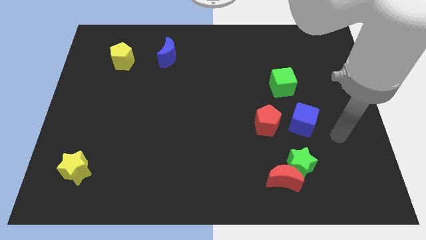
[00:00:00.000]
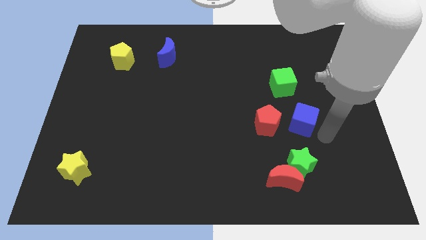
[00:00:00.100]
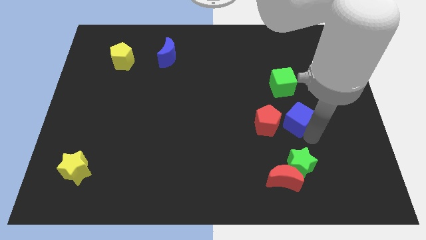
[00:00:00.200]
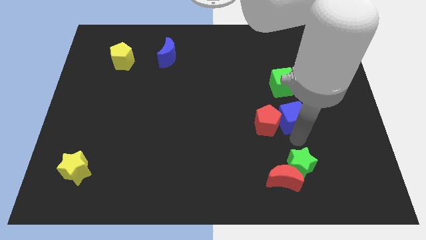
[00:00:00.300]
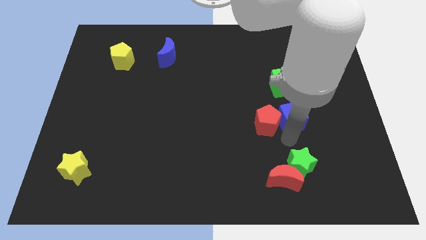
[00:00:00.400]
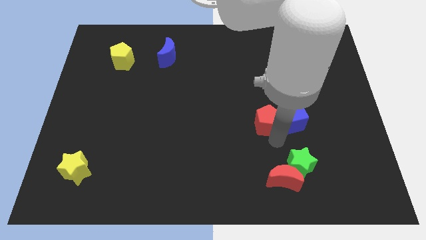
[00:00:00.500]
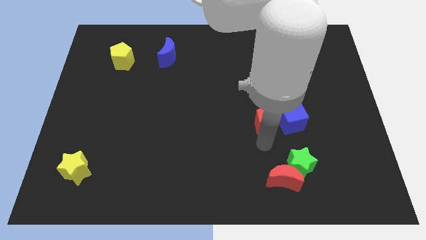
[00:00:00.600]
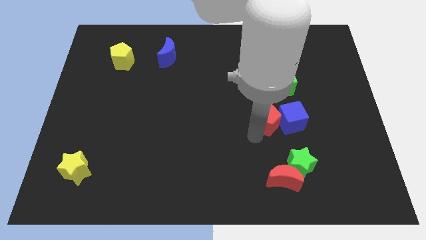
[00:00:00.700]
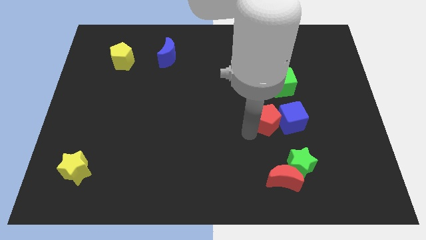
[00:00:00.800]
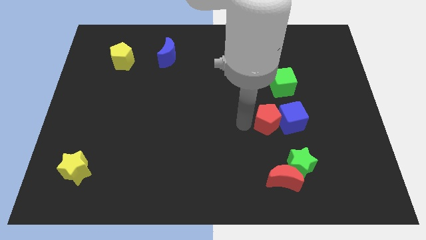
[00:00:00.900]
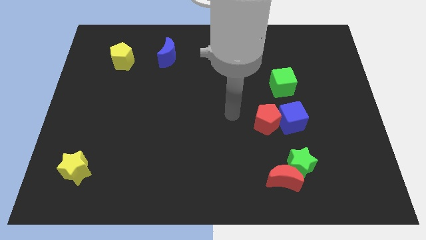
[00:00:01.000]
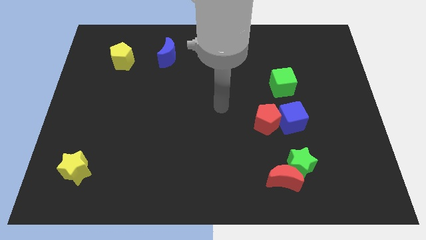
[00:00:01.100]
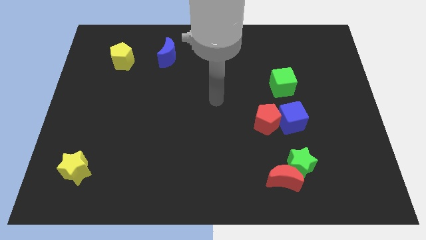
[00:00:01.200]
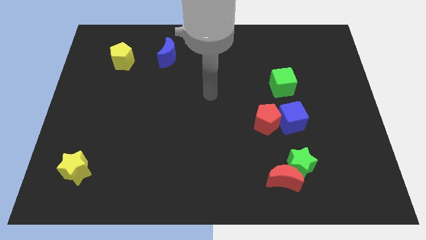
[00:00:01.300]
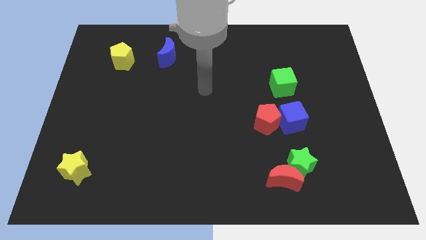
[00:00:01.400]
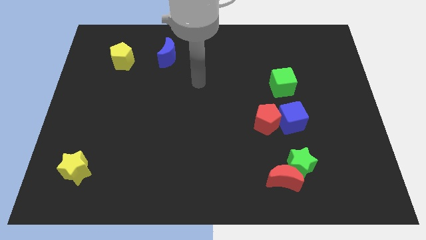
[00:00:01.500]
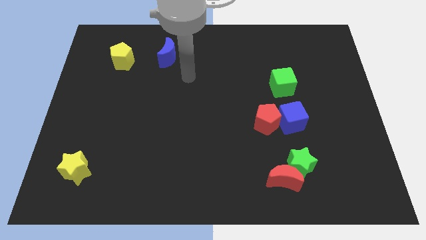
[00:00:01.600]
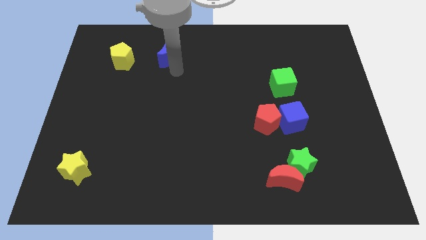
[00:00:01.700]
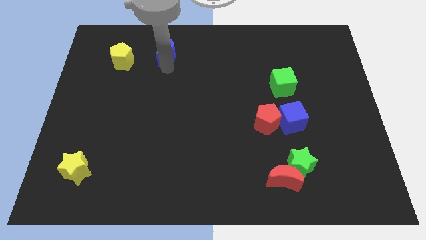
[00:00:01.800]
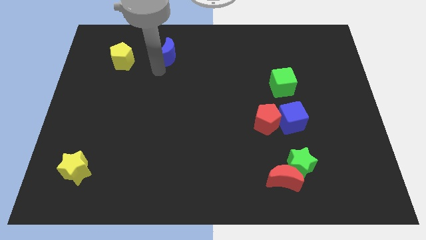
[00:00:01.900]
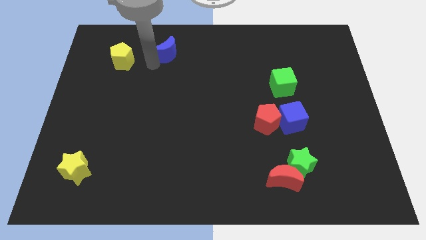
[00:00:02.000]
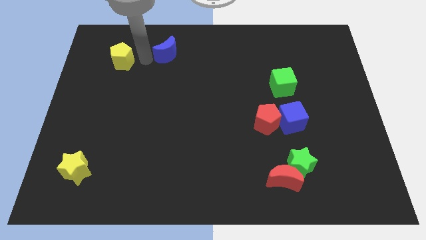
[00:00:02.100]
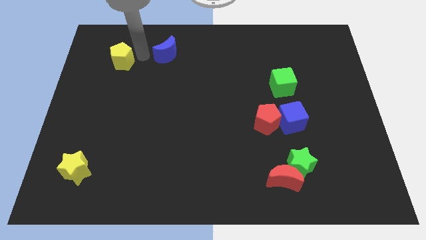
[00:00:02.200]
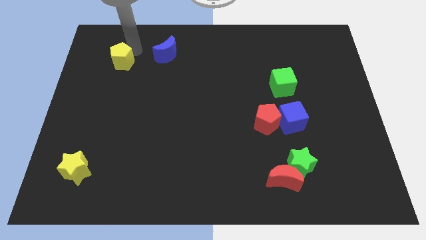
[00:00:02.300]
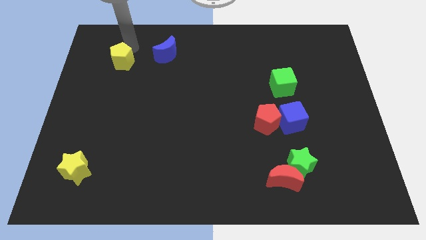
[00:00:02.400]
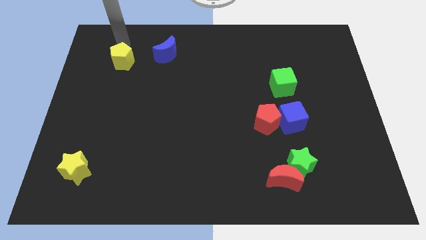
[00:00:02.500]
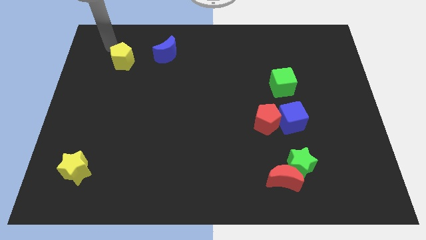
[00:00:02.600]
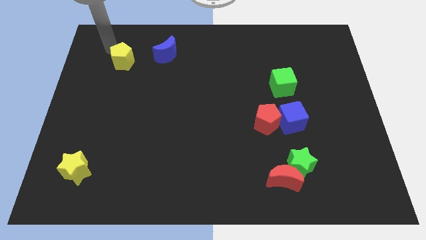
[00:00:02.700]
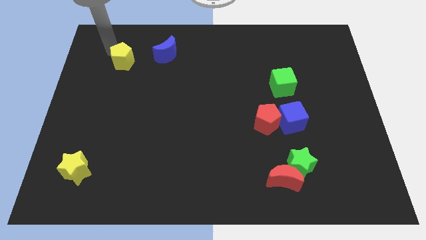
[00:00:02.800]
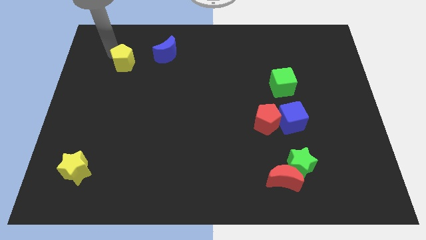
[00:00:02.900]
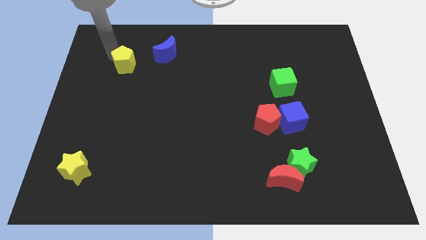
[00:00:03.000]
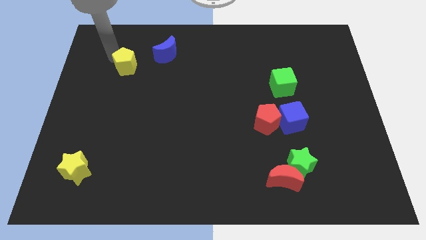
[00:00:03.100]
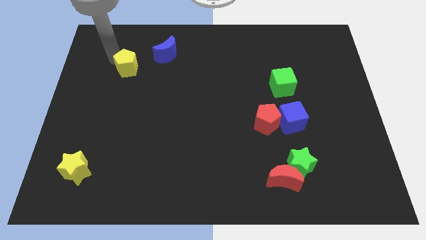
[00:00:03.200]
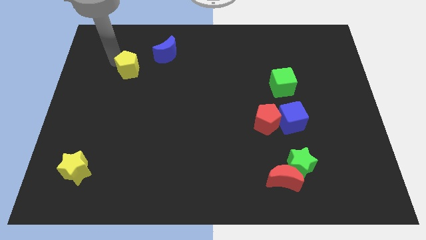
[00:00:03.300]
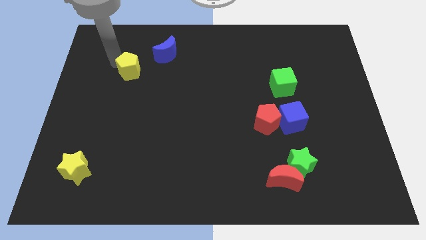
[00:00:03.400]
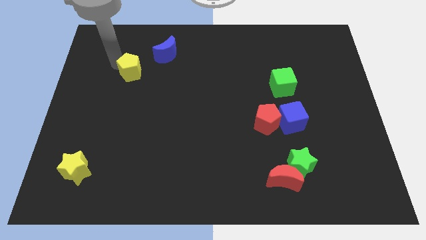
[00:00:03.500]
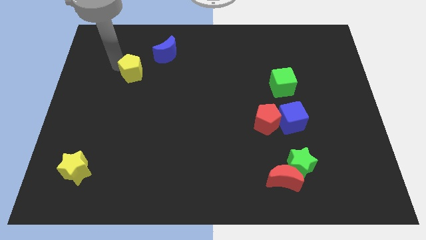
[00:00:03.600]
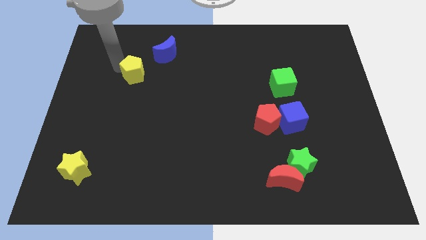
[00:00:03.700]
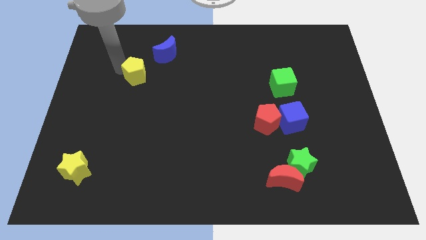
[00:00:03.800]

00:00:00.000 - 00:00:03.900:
slide the yellow pentagon a bit downwards and right

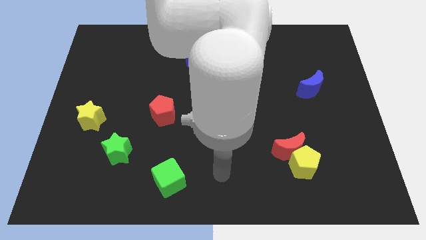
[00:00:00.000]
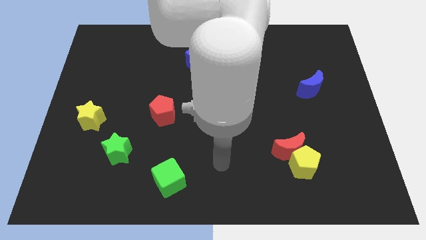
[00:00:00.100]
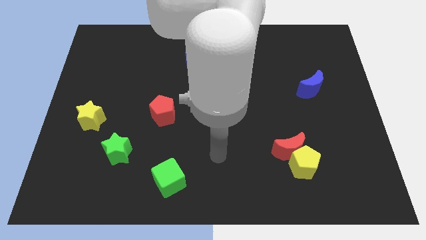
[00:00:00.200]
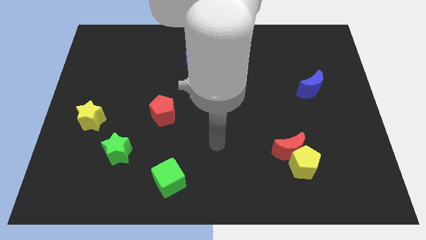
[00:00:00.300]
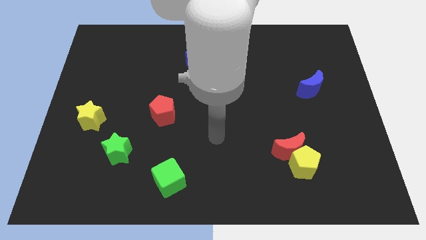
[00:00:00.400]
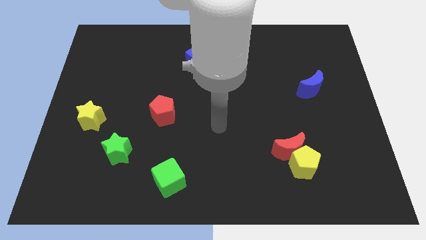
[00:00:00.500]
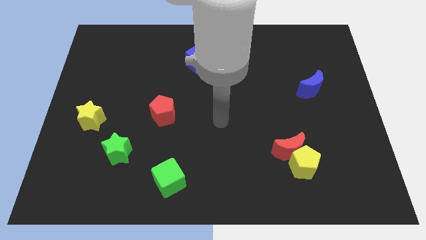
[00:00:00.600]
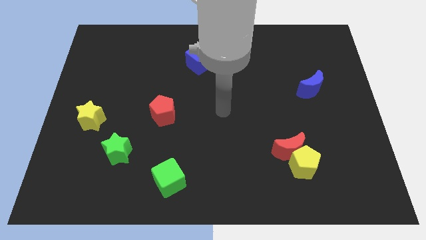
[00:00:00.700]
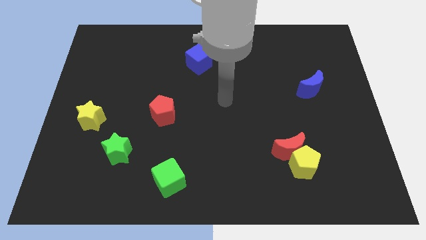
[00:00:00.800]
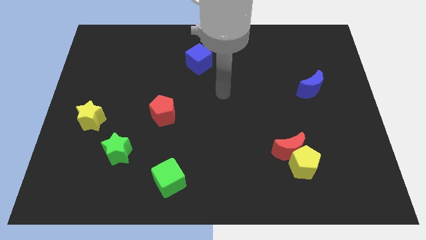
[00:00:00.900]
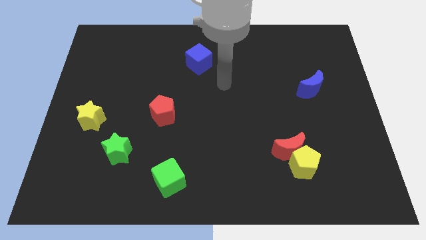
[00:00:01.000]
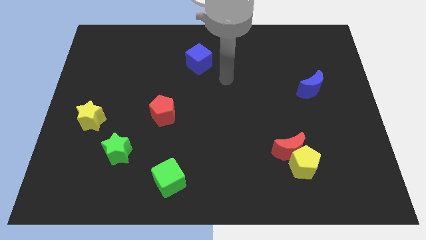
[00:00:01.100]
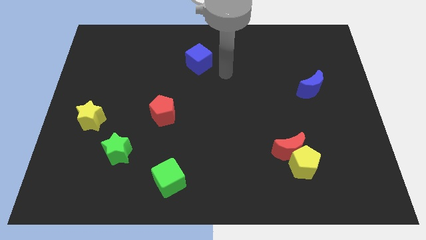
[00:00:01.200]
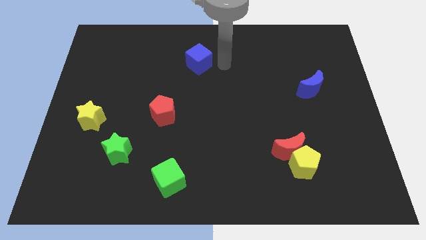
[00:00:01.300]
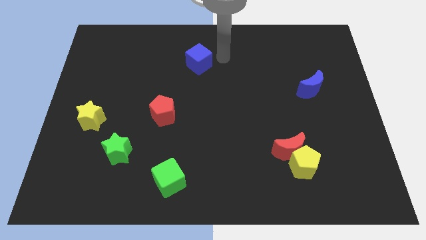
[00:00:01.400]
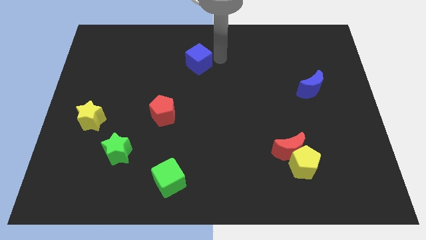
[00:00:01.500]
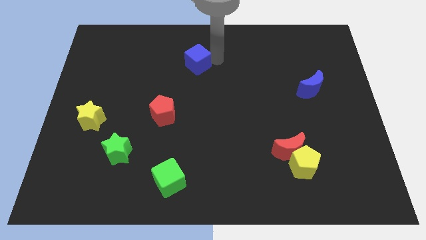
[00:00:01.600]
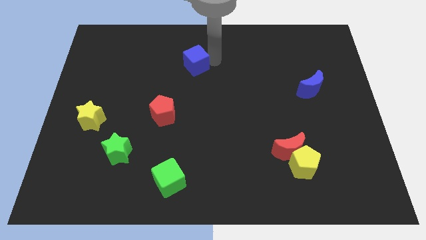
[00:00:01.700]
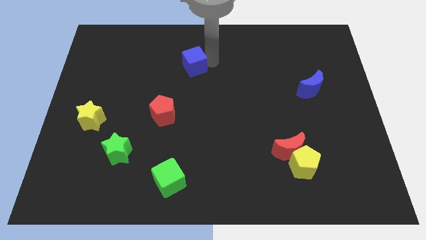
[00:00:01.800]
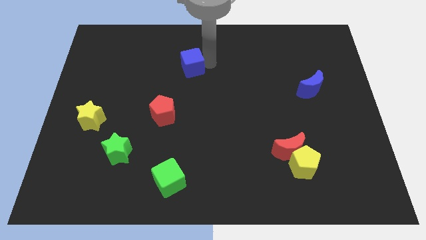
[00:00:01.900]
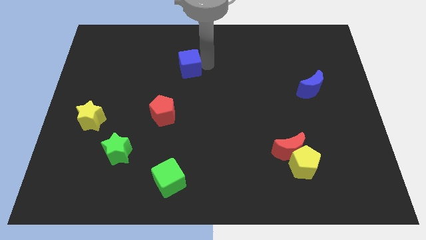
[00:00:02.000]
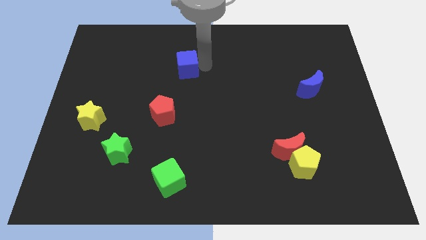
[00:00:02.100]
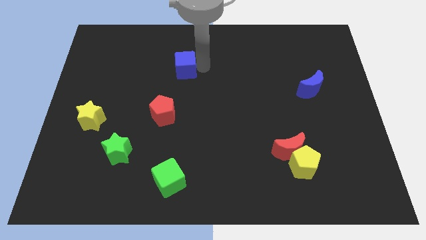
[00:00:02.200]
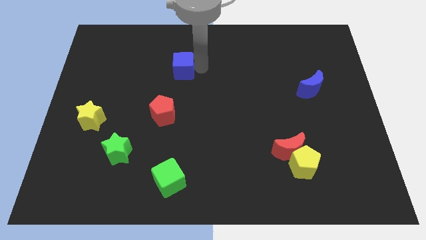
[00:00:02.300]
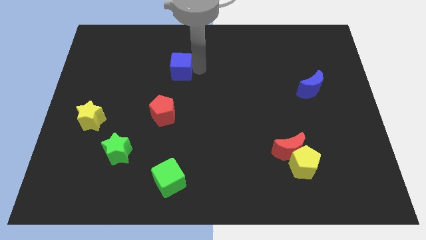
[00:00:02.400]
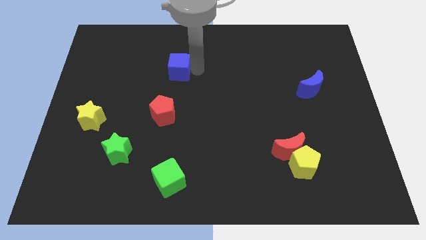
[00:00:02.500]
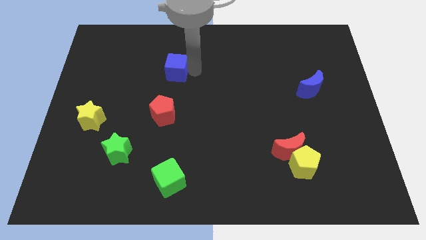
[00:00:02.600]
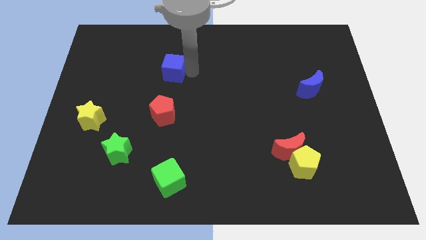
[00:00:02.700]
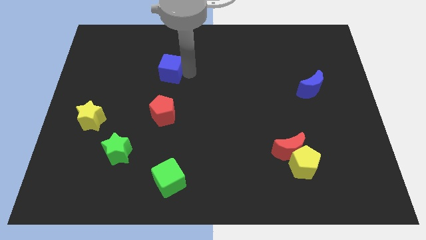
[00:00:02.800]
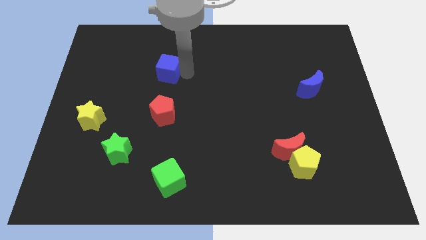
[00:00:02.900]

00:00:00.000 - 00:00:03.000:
move the blue cube to the left slightly

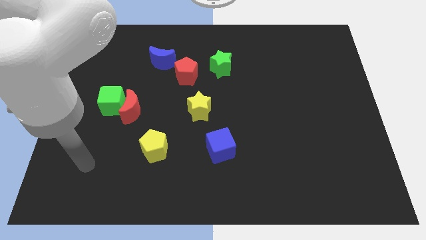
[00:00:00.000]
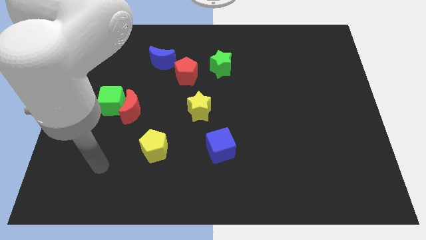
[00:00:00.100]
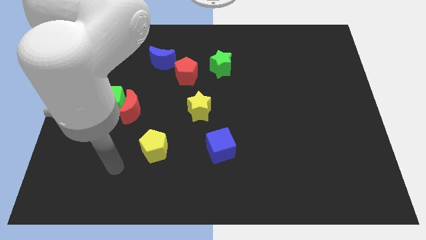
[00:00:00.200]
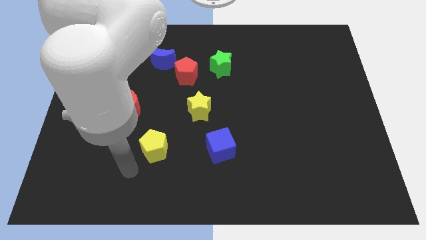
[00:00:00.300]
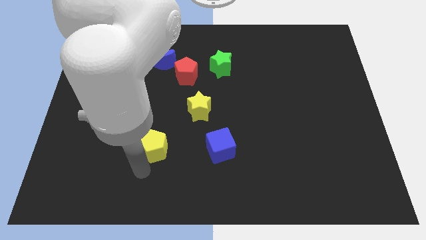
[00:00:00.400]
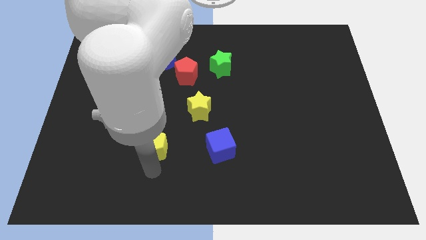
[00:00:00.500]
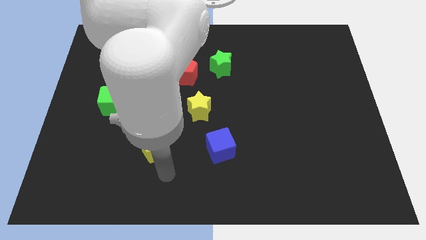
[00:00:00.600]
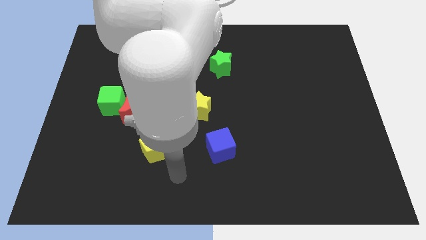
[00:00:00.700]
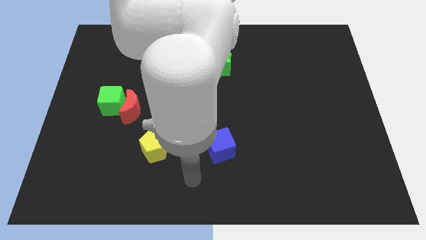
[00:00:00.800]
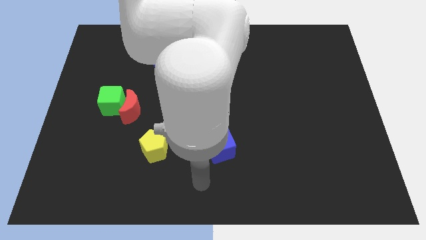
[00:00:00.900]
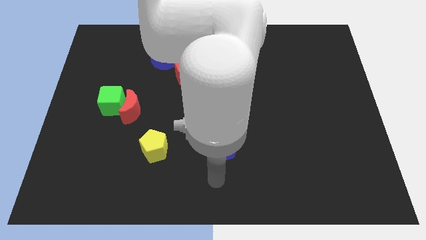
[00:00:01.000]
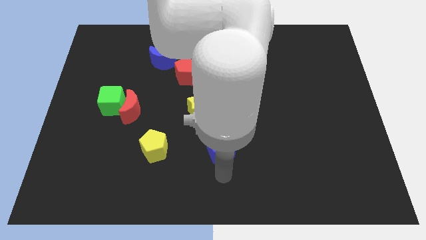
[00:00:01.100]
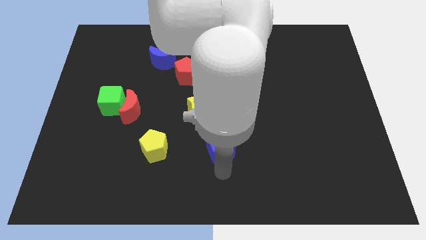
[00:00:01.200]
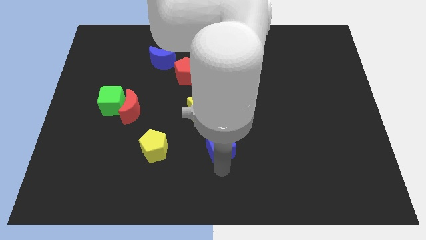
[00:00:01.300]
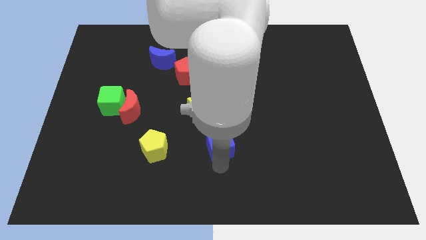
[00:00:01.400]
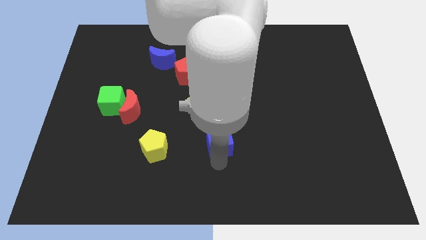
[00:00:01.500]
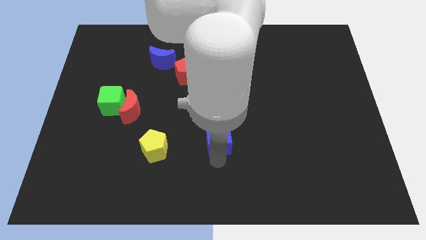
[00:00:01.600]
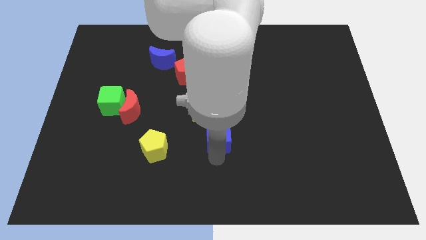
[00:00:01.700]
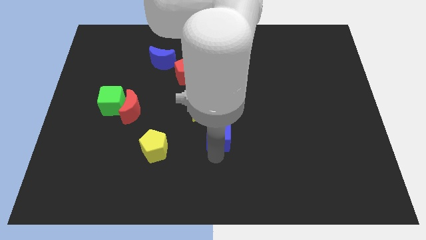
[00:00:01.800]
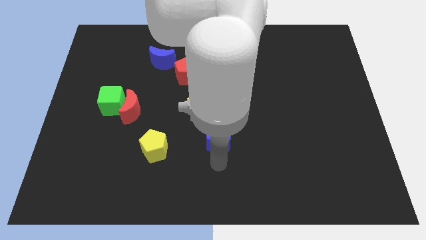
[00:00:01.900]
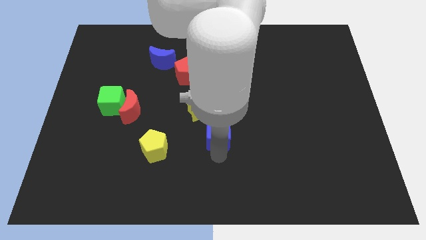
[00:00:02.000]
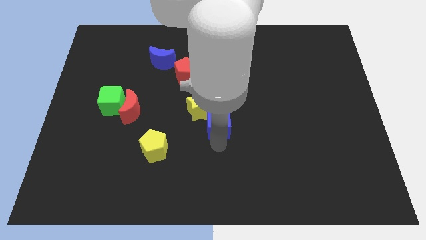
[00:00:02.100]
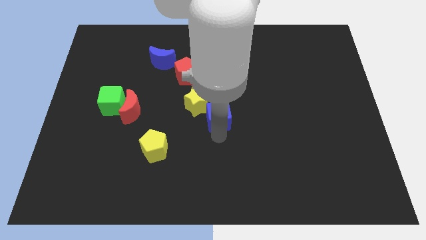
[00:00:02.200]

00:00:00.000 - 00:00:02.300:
slide the blue cube a little bit up
